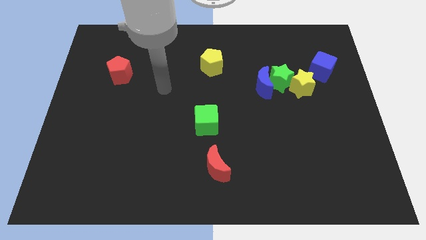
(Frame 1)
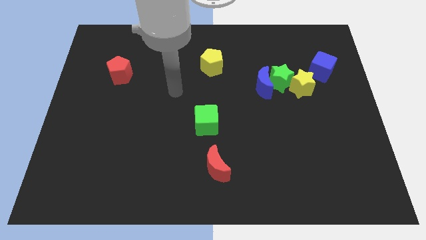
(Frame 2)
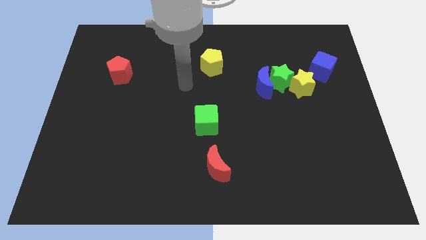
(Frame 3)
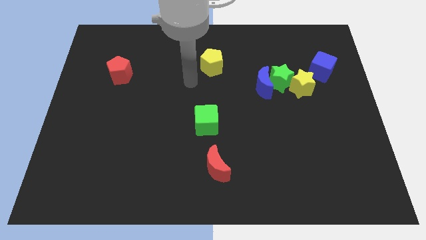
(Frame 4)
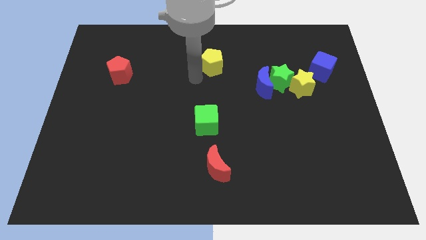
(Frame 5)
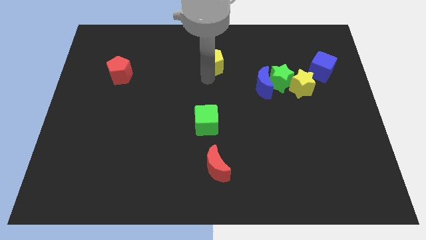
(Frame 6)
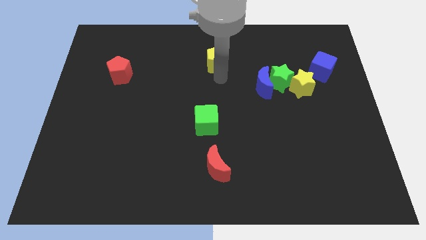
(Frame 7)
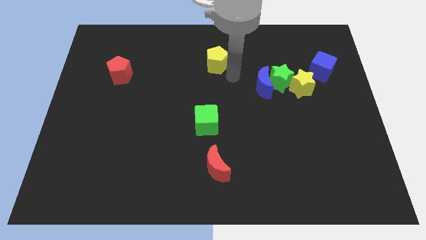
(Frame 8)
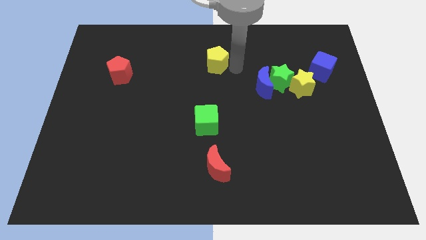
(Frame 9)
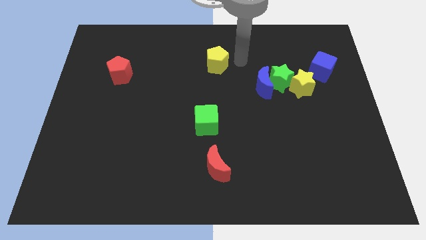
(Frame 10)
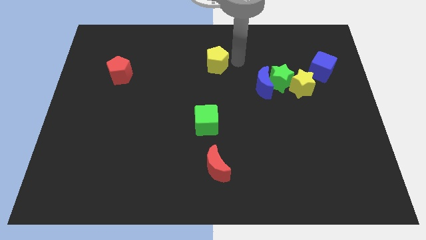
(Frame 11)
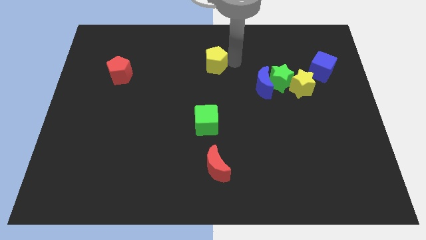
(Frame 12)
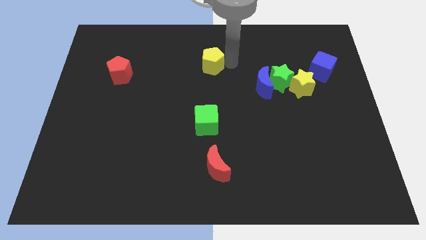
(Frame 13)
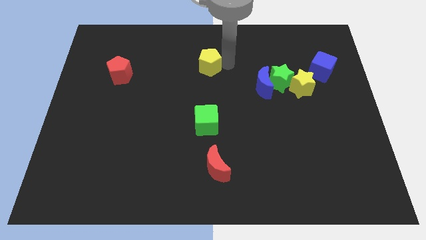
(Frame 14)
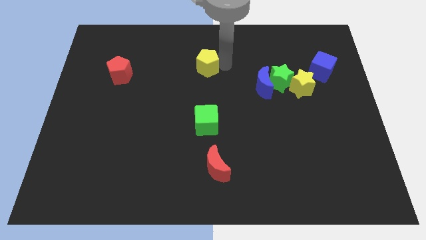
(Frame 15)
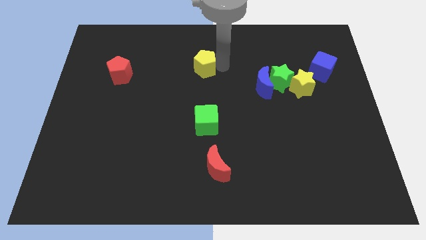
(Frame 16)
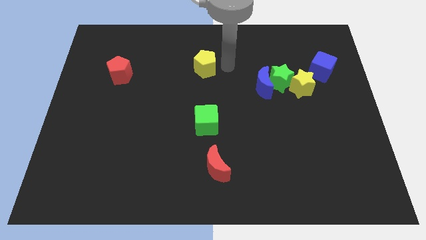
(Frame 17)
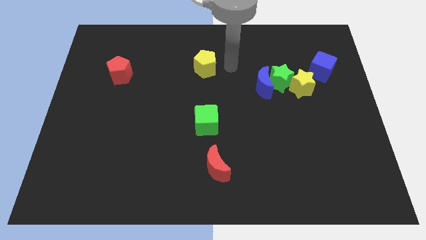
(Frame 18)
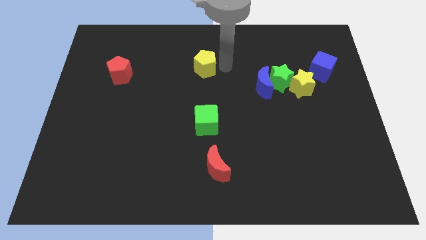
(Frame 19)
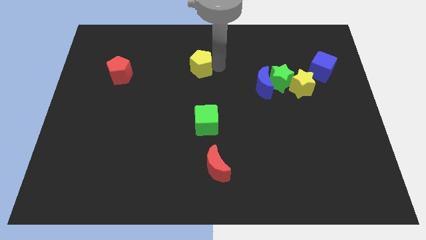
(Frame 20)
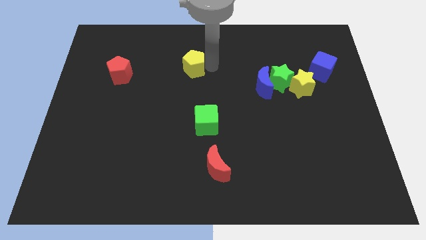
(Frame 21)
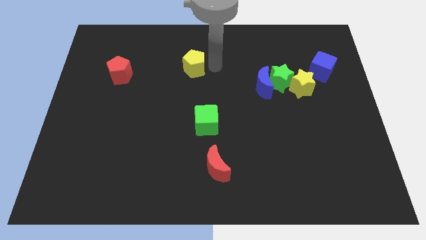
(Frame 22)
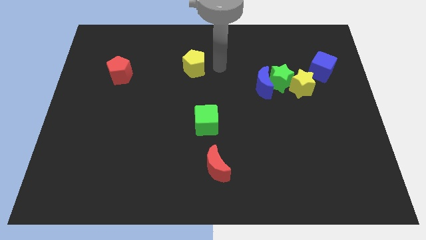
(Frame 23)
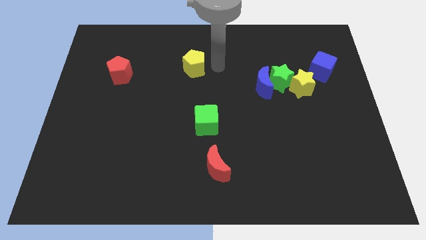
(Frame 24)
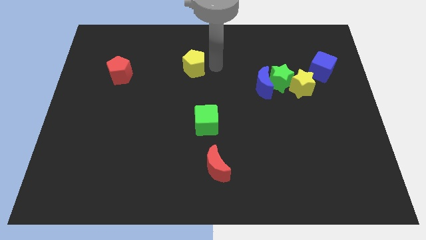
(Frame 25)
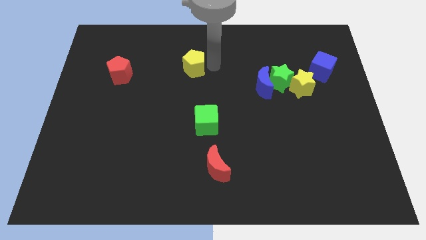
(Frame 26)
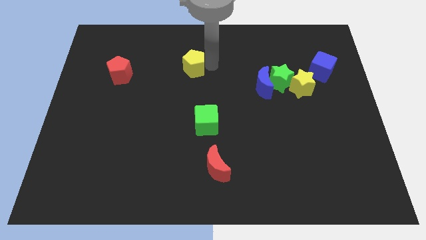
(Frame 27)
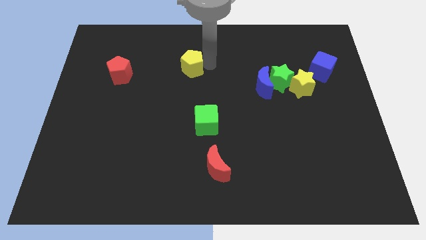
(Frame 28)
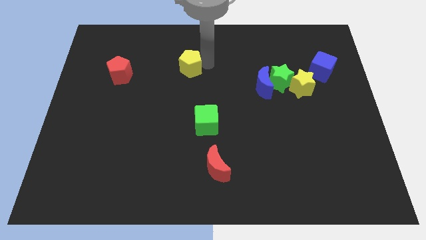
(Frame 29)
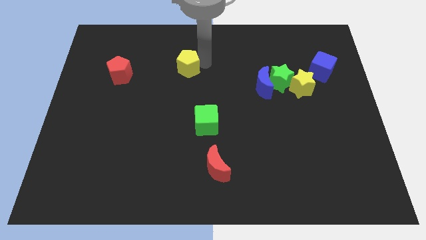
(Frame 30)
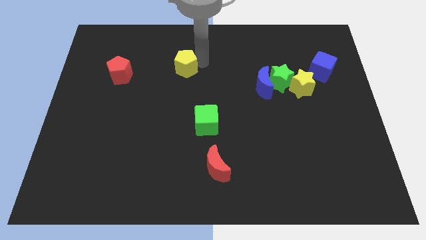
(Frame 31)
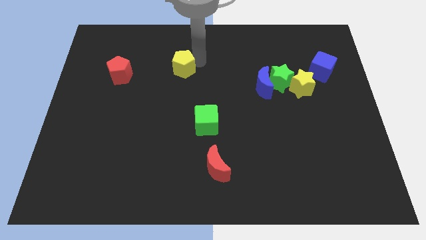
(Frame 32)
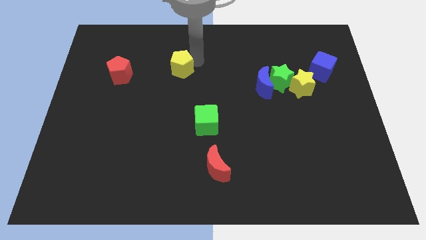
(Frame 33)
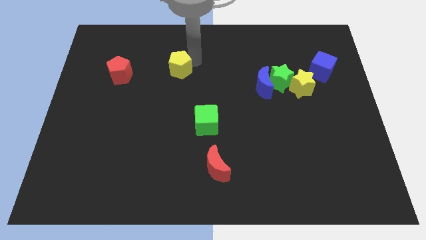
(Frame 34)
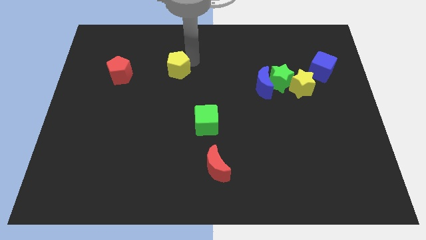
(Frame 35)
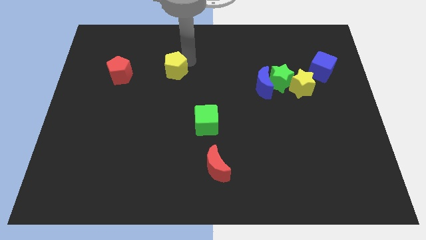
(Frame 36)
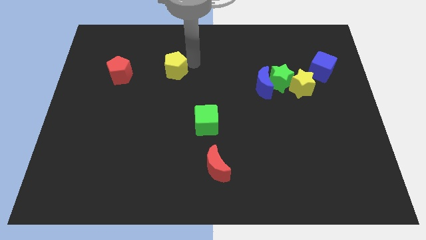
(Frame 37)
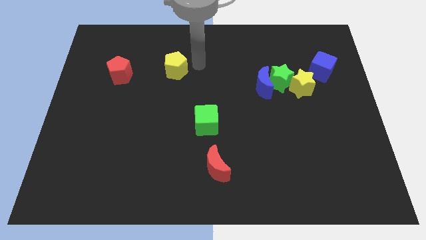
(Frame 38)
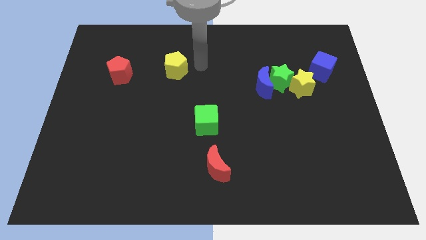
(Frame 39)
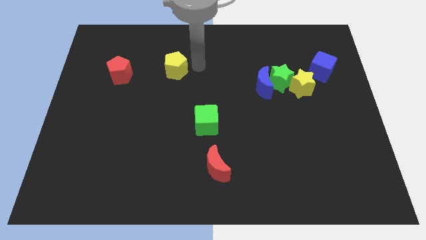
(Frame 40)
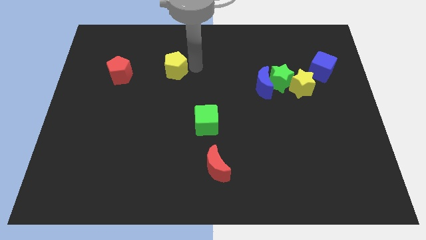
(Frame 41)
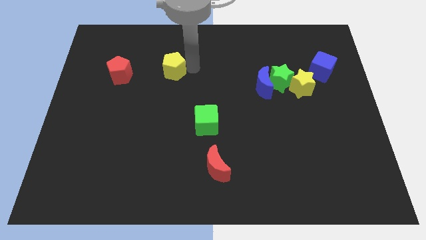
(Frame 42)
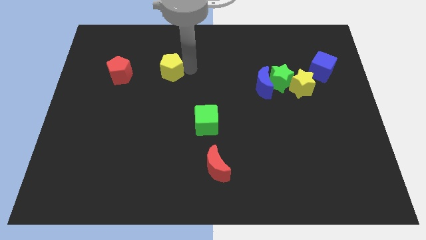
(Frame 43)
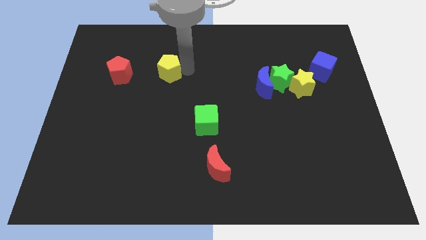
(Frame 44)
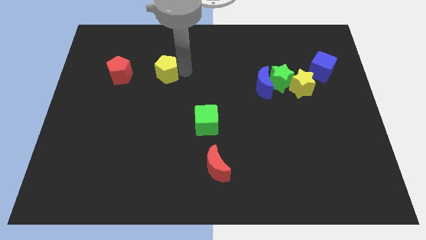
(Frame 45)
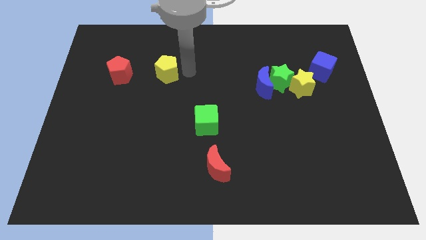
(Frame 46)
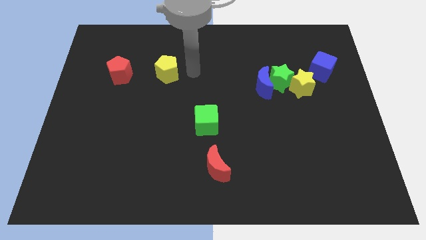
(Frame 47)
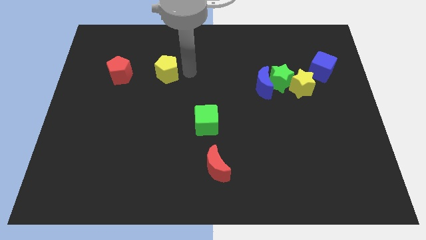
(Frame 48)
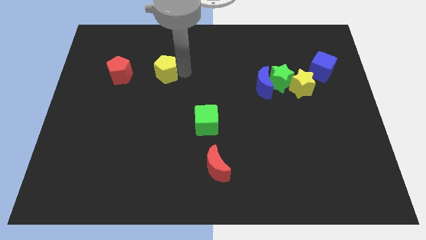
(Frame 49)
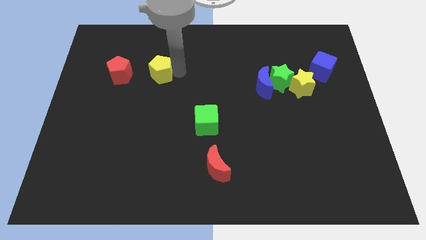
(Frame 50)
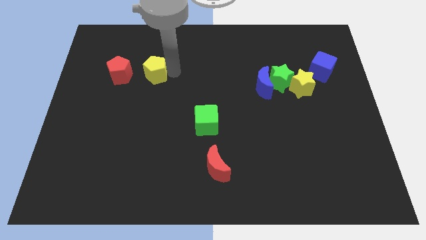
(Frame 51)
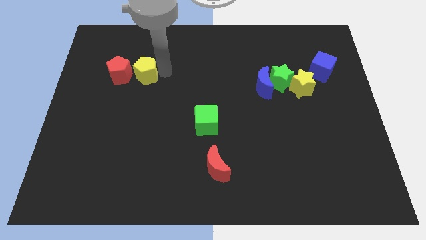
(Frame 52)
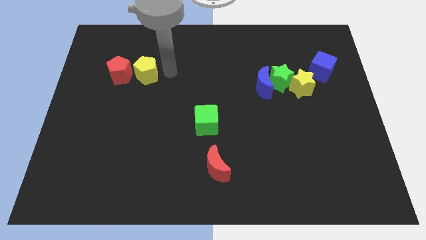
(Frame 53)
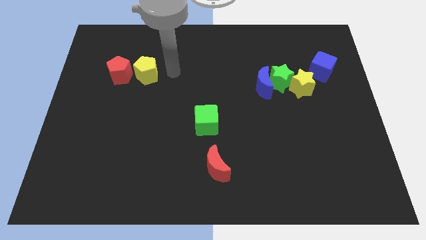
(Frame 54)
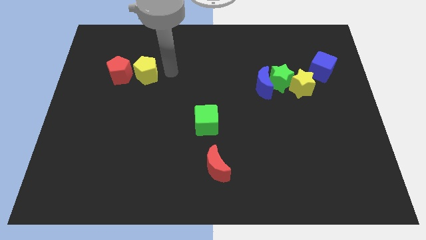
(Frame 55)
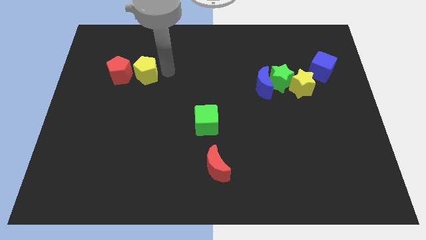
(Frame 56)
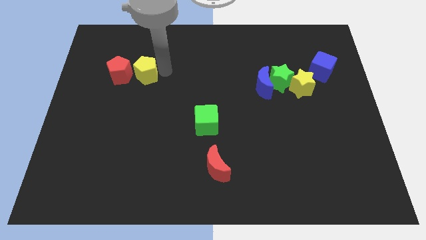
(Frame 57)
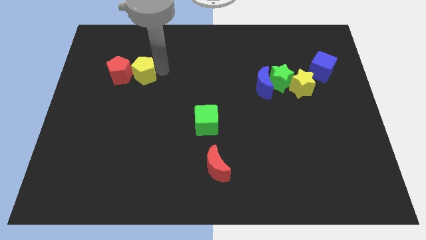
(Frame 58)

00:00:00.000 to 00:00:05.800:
put the yellow pentagon close to the red pentagon

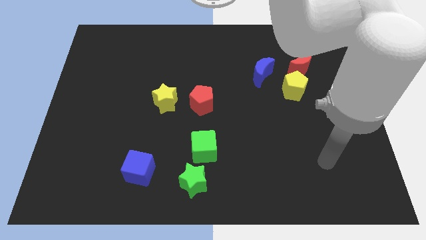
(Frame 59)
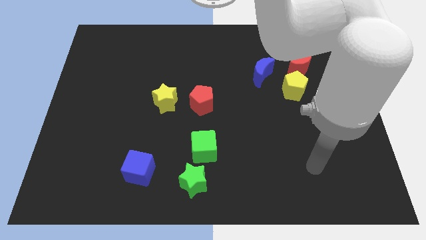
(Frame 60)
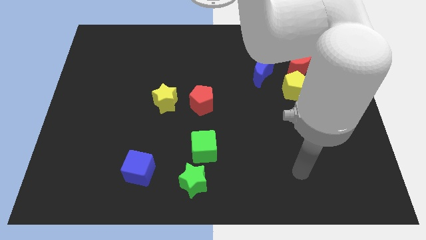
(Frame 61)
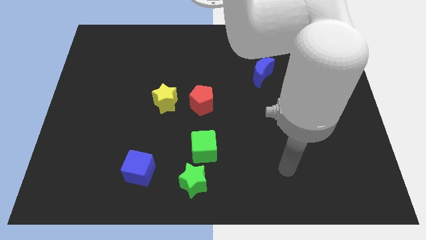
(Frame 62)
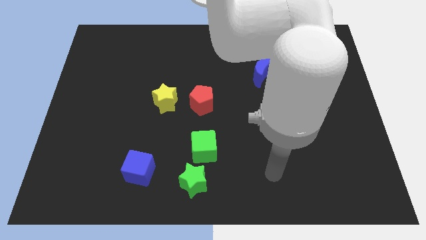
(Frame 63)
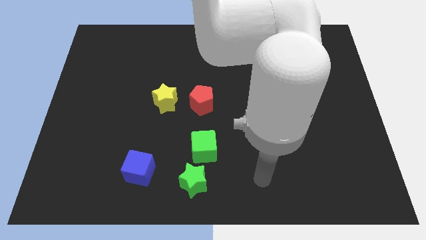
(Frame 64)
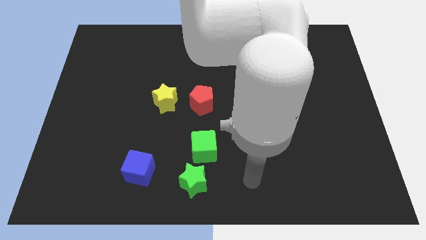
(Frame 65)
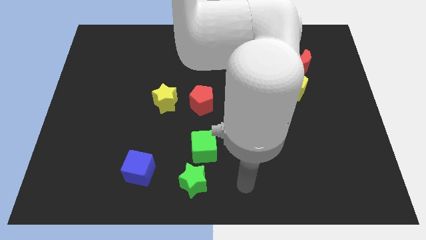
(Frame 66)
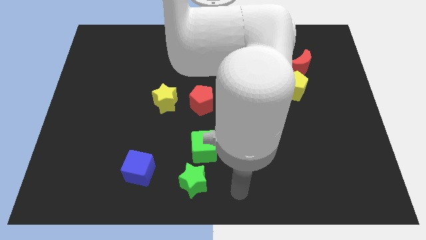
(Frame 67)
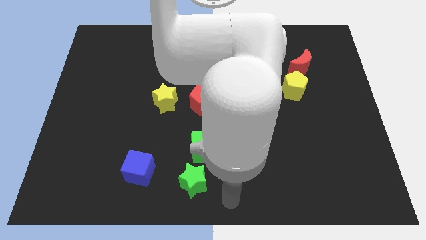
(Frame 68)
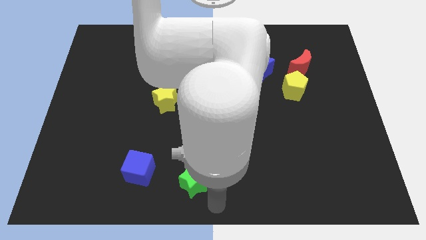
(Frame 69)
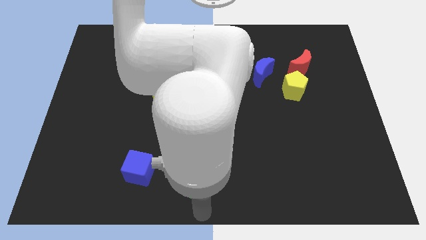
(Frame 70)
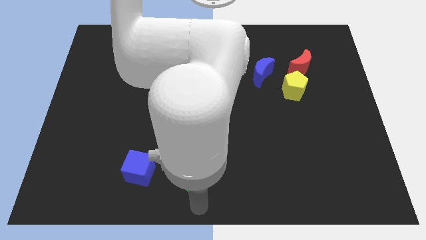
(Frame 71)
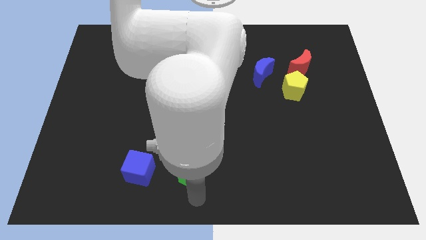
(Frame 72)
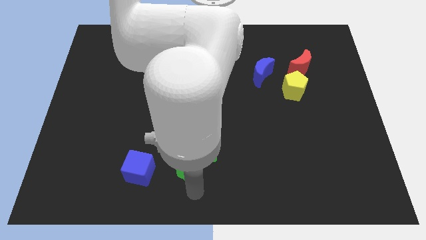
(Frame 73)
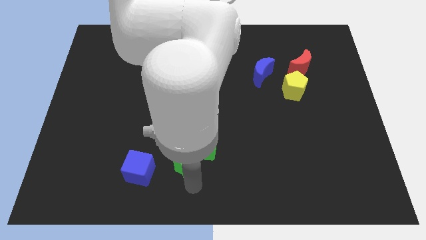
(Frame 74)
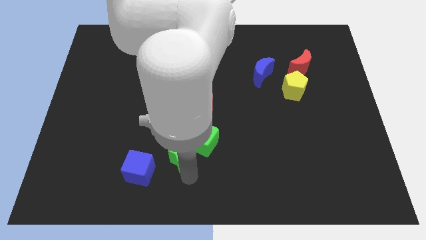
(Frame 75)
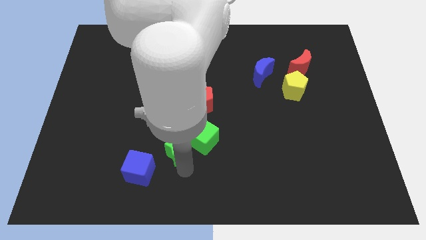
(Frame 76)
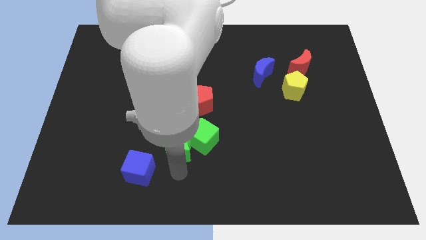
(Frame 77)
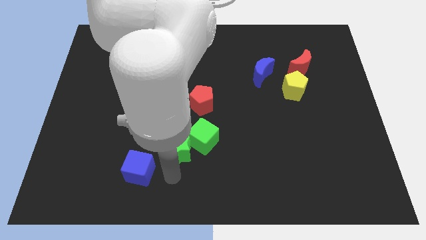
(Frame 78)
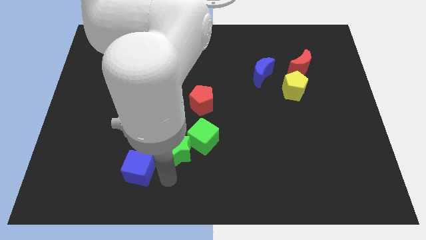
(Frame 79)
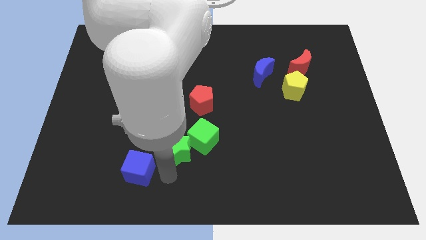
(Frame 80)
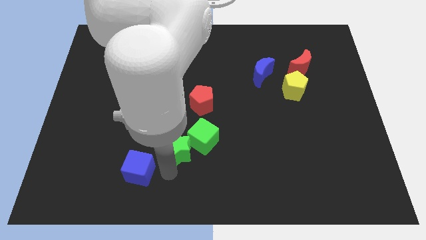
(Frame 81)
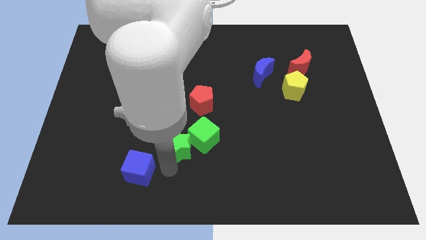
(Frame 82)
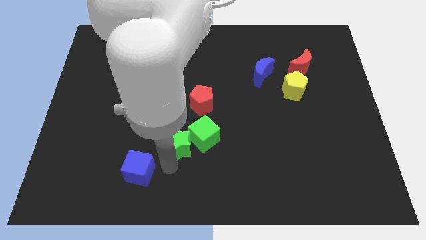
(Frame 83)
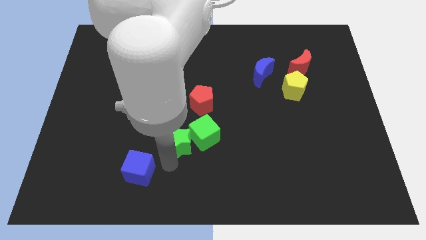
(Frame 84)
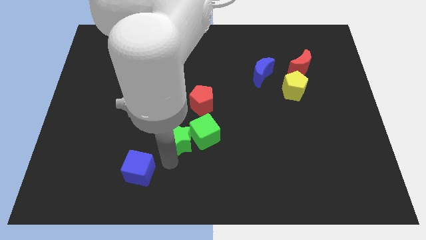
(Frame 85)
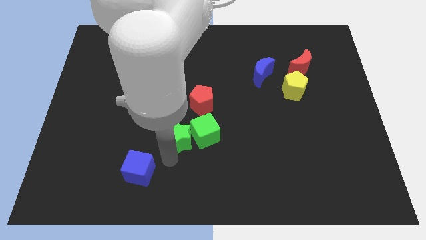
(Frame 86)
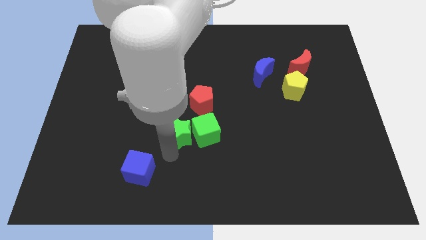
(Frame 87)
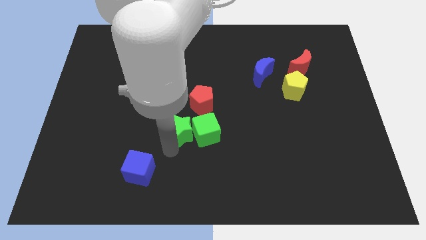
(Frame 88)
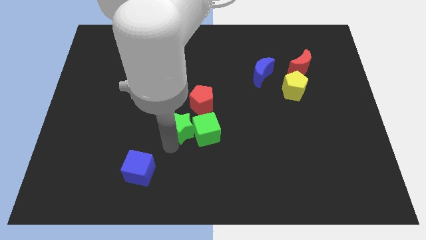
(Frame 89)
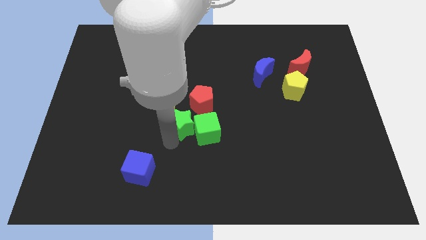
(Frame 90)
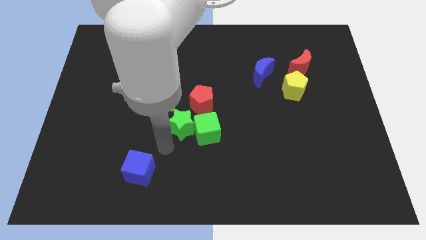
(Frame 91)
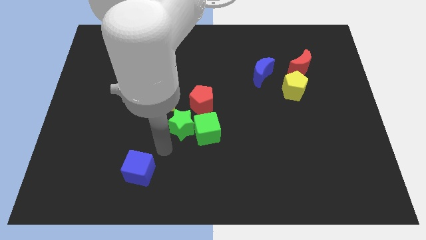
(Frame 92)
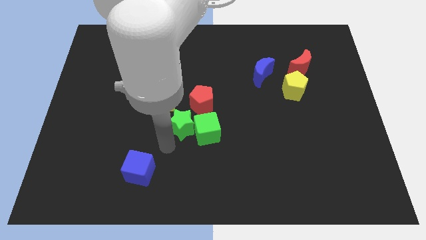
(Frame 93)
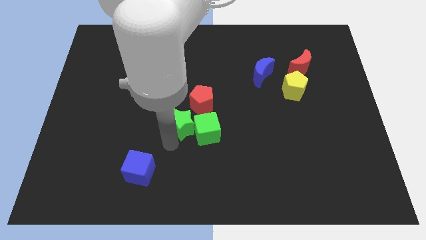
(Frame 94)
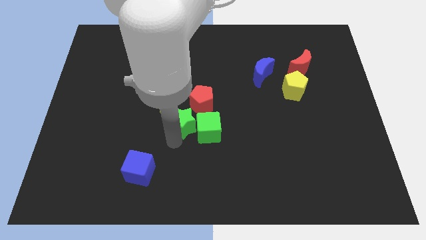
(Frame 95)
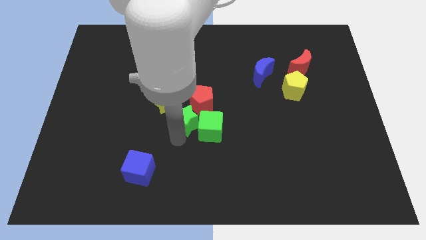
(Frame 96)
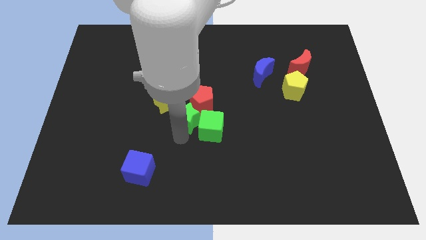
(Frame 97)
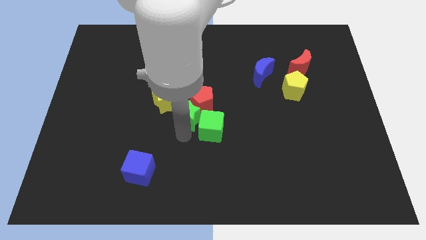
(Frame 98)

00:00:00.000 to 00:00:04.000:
slide the green star close to the red pentagon
